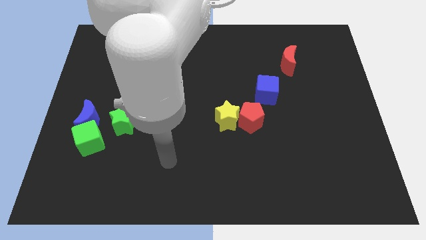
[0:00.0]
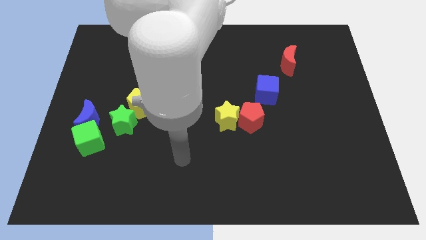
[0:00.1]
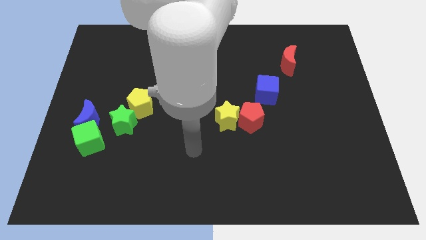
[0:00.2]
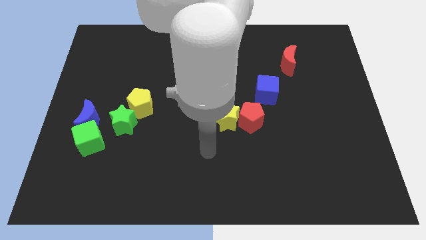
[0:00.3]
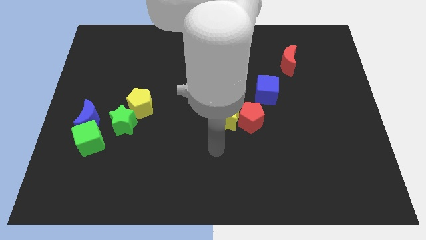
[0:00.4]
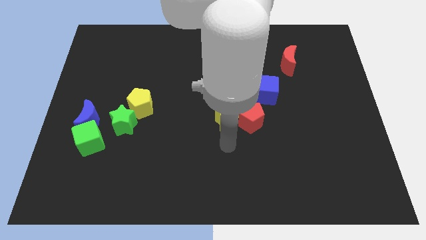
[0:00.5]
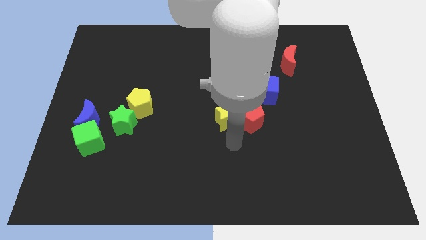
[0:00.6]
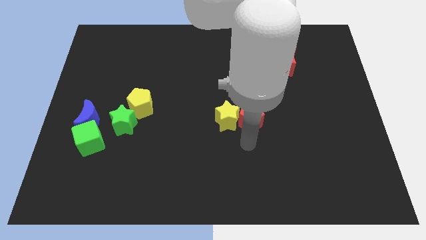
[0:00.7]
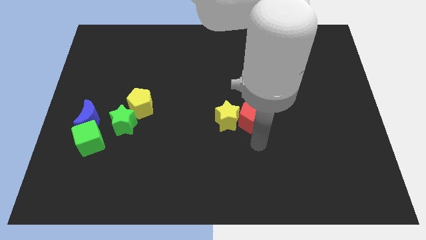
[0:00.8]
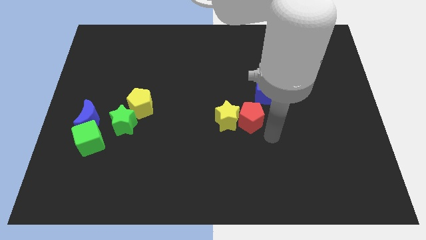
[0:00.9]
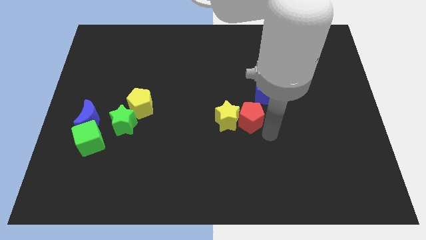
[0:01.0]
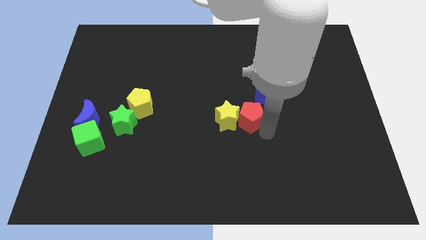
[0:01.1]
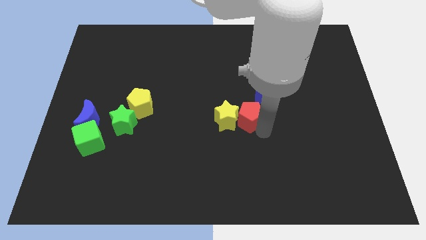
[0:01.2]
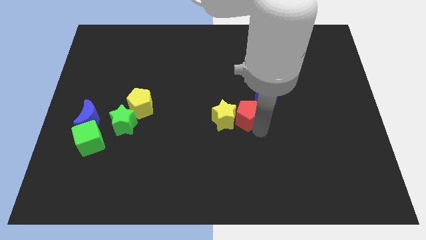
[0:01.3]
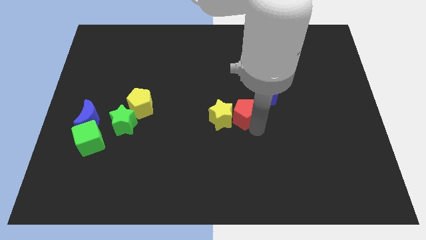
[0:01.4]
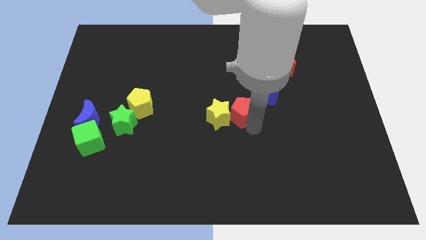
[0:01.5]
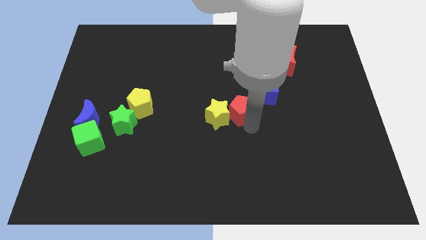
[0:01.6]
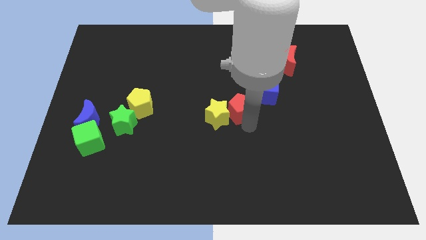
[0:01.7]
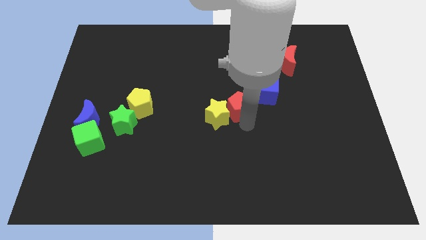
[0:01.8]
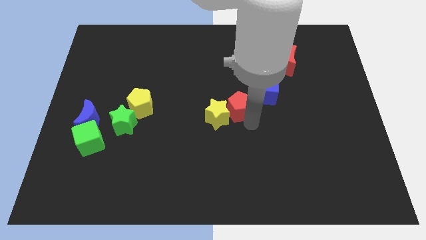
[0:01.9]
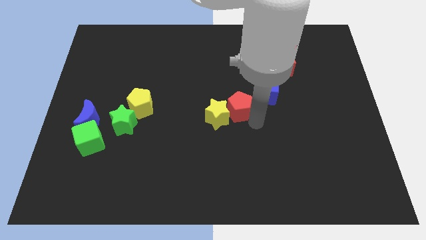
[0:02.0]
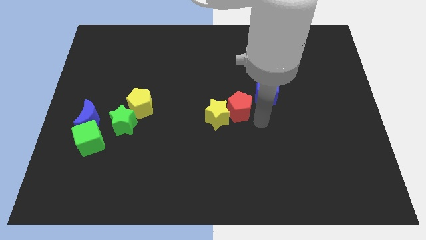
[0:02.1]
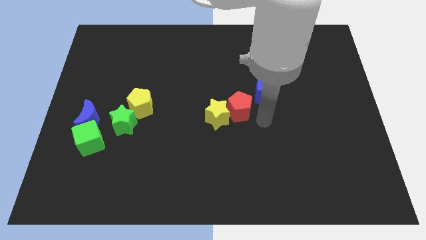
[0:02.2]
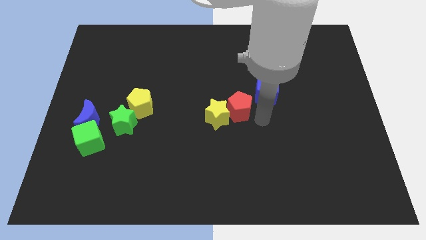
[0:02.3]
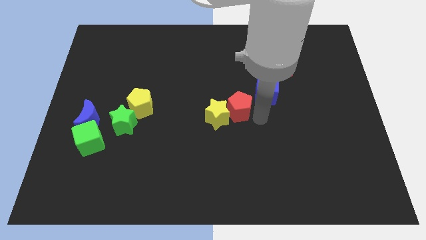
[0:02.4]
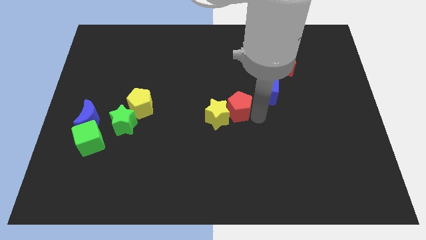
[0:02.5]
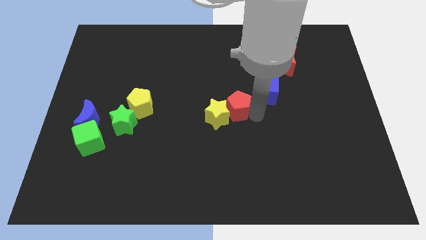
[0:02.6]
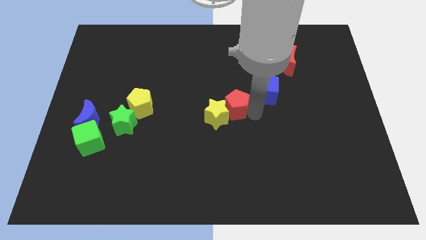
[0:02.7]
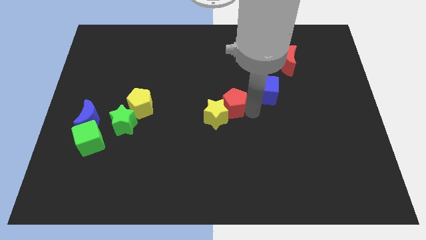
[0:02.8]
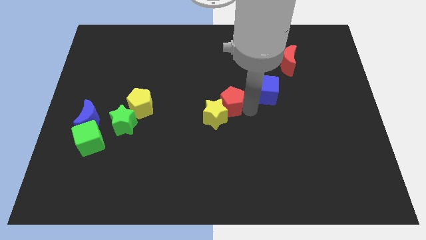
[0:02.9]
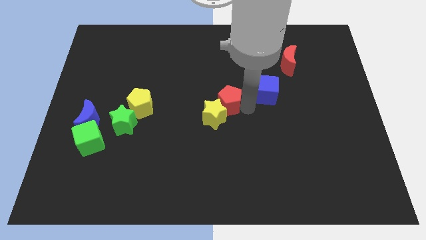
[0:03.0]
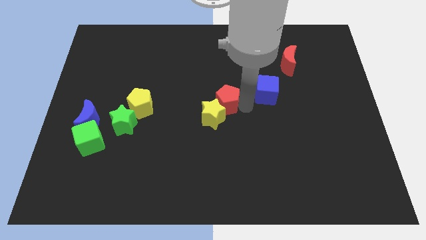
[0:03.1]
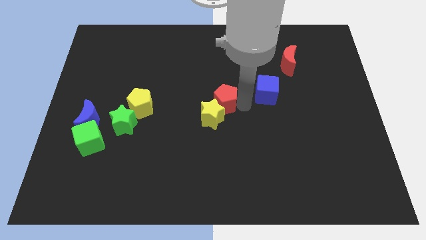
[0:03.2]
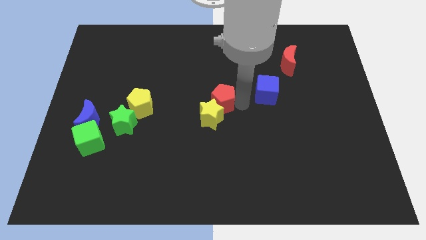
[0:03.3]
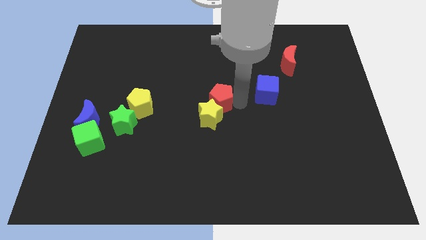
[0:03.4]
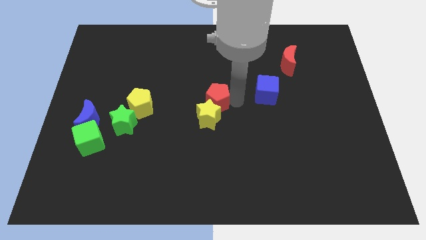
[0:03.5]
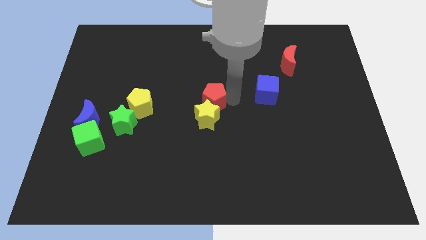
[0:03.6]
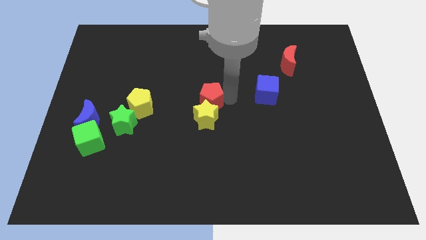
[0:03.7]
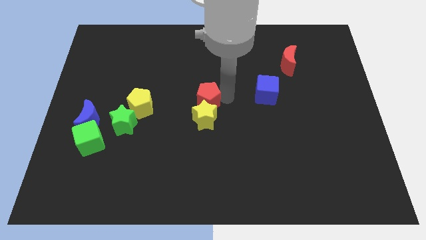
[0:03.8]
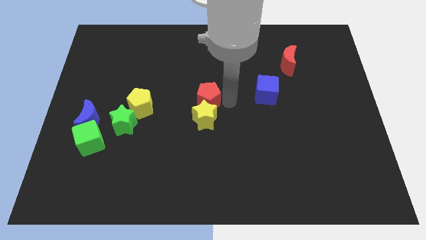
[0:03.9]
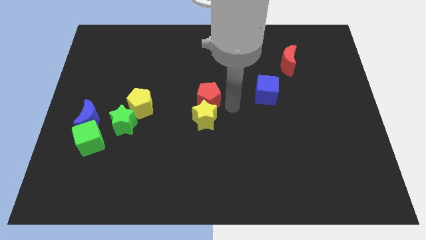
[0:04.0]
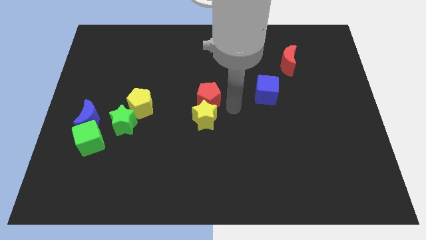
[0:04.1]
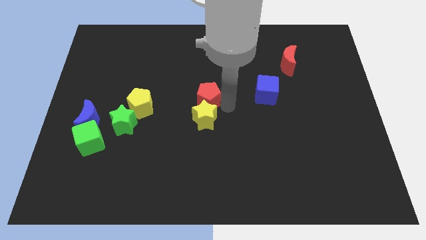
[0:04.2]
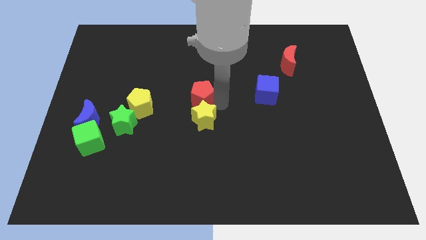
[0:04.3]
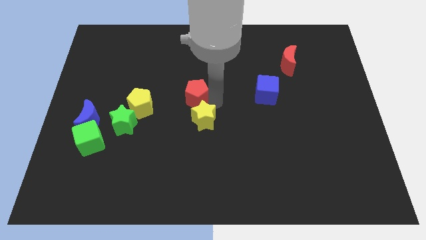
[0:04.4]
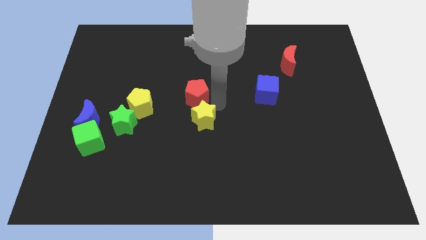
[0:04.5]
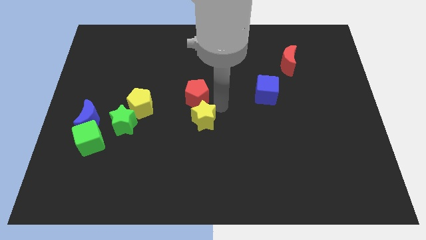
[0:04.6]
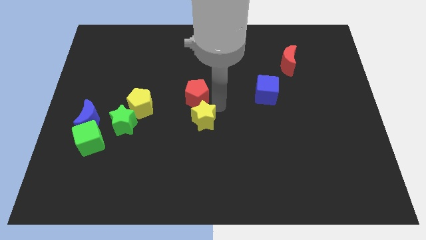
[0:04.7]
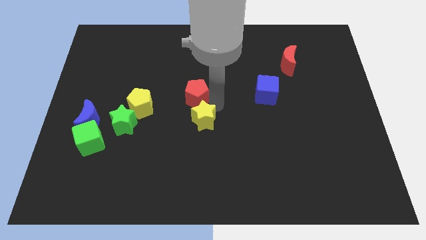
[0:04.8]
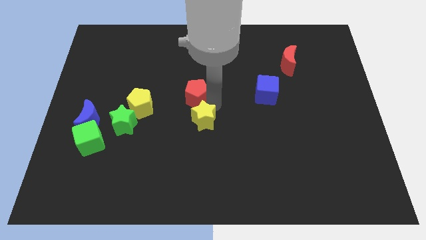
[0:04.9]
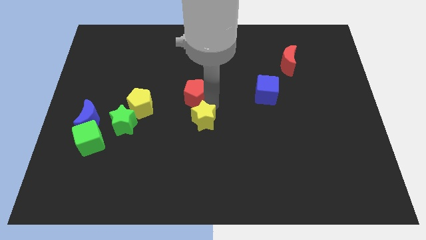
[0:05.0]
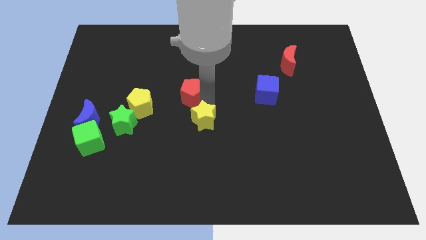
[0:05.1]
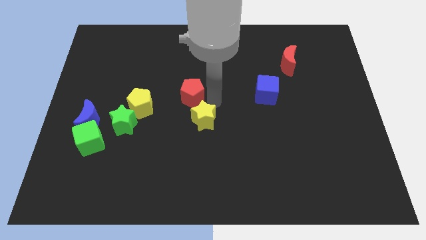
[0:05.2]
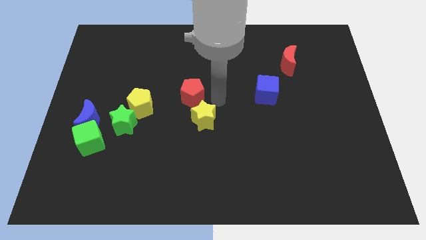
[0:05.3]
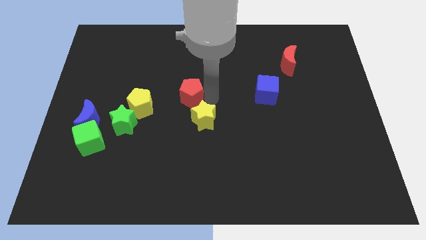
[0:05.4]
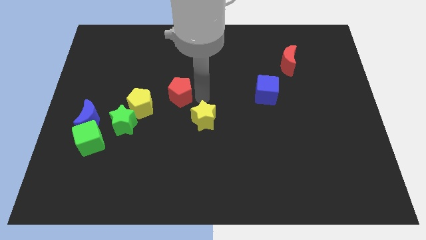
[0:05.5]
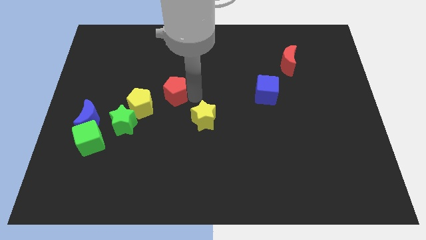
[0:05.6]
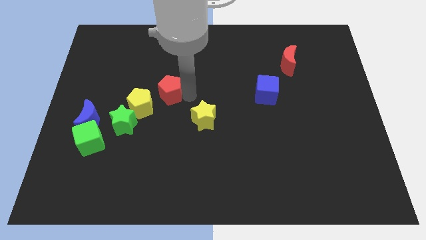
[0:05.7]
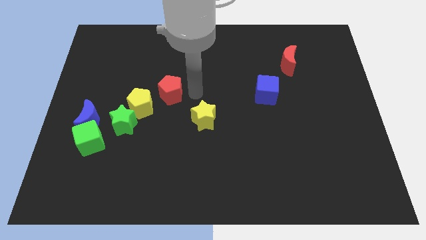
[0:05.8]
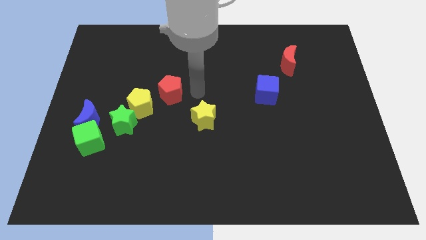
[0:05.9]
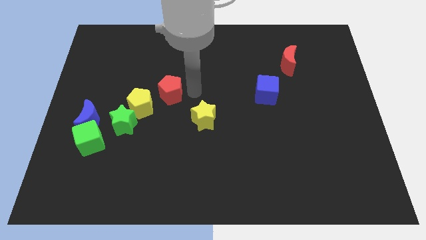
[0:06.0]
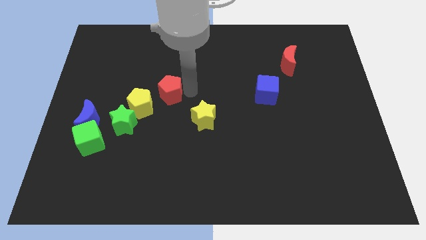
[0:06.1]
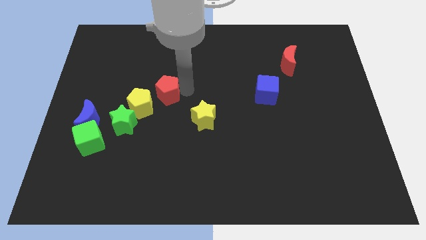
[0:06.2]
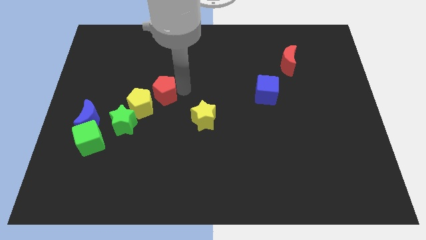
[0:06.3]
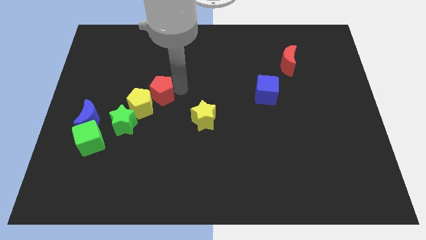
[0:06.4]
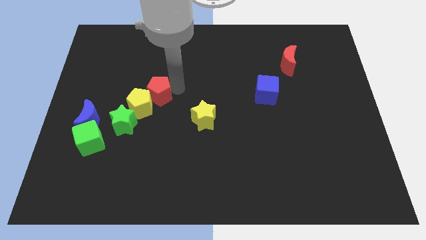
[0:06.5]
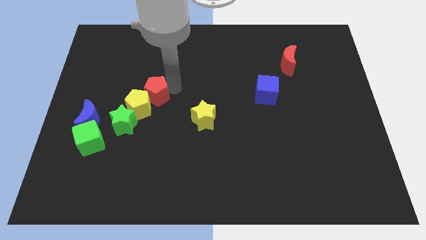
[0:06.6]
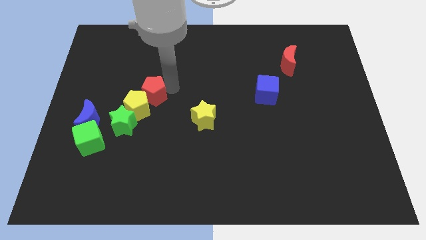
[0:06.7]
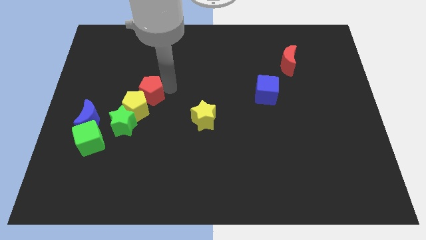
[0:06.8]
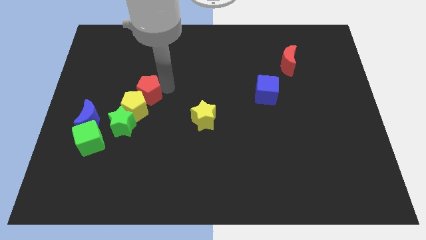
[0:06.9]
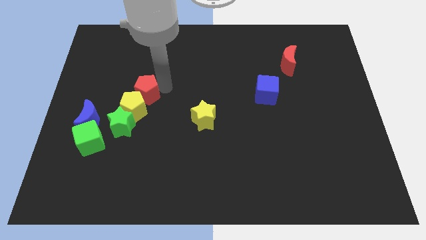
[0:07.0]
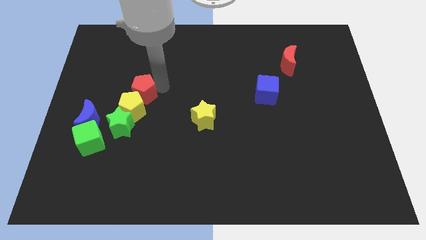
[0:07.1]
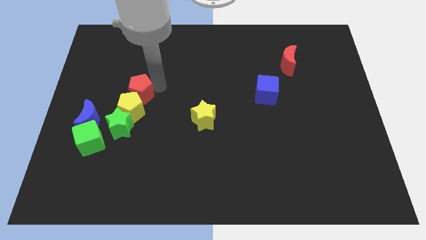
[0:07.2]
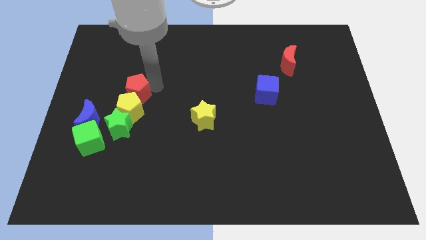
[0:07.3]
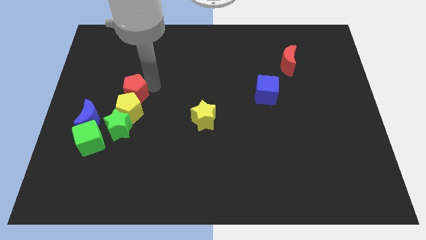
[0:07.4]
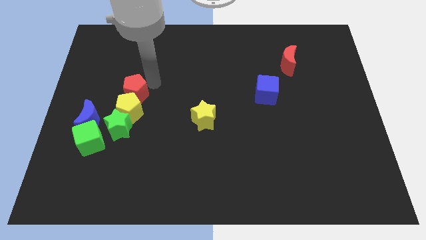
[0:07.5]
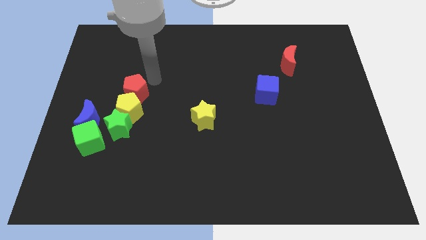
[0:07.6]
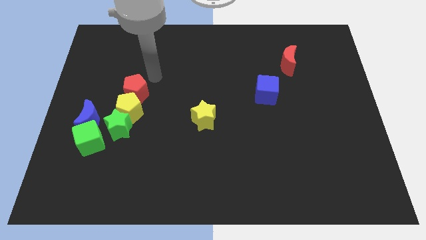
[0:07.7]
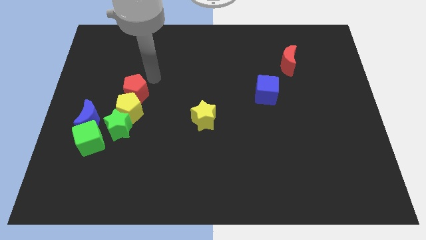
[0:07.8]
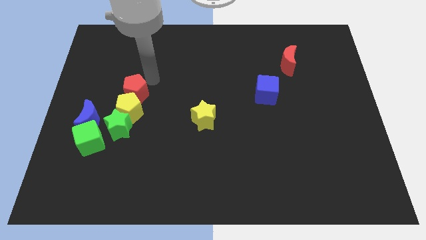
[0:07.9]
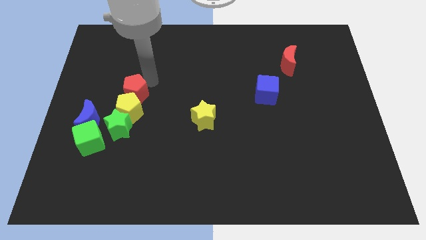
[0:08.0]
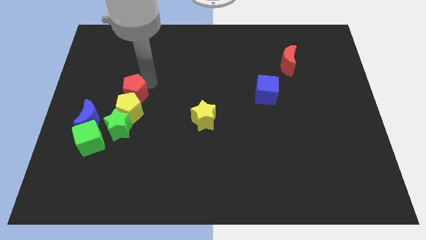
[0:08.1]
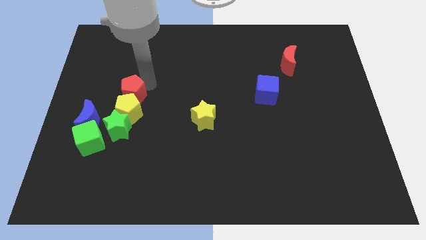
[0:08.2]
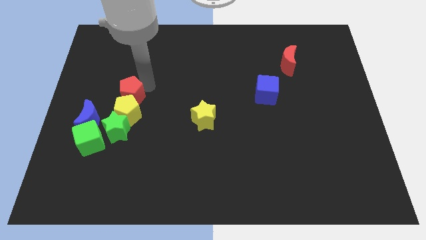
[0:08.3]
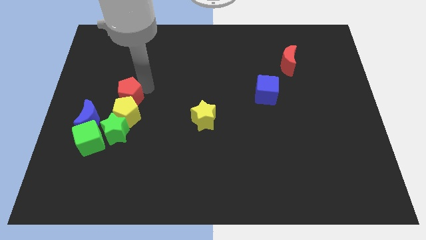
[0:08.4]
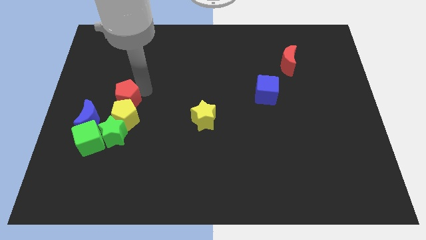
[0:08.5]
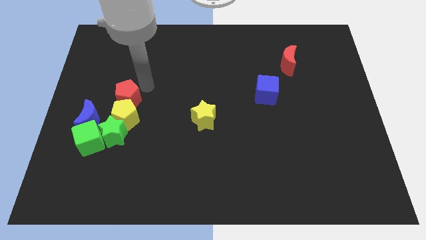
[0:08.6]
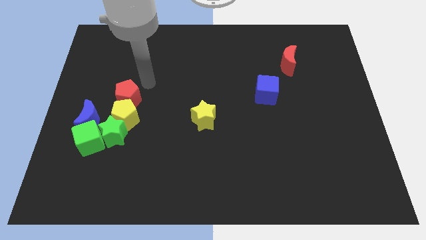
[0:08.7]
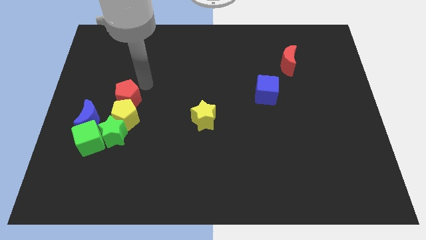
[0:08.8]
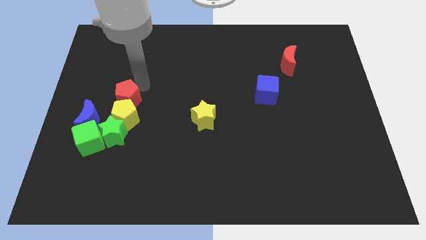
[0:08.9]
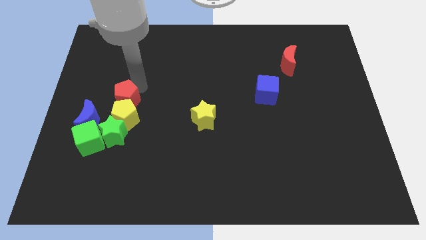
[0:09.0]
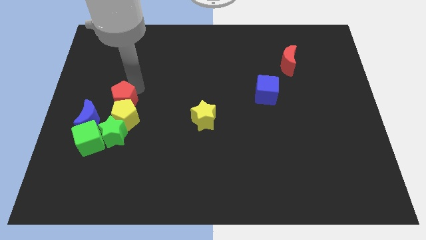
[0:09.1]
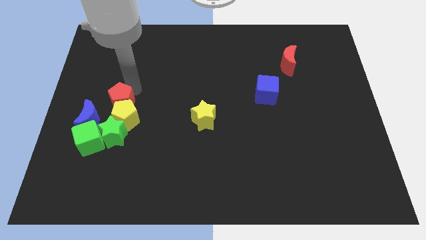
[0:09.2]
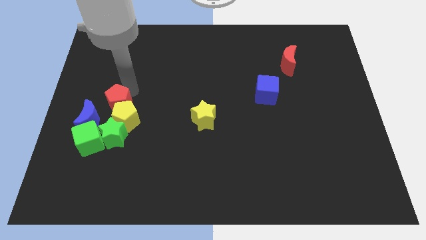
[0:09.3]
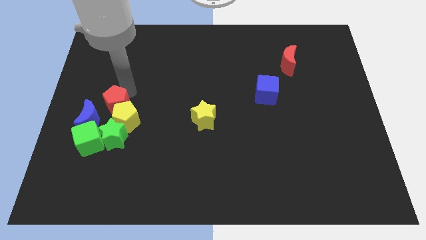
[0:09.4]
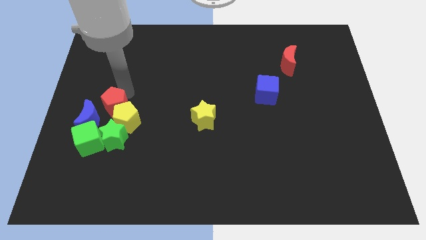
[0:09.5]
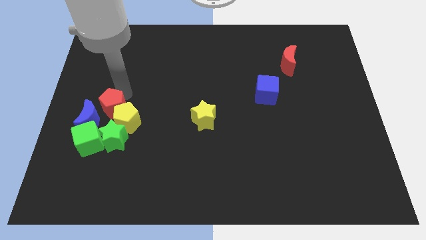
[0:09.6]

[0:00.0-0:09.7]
slide the red pentagon to the blue moon
